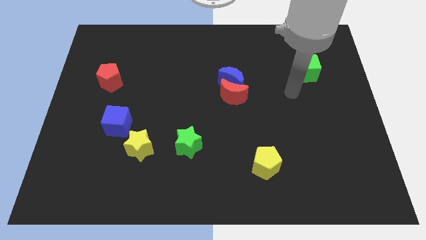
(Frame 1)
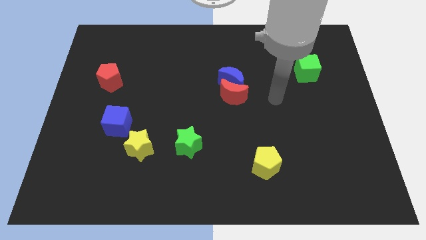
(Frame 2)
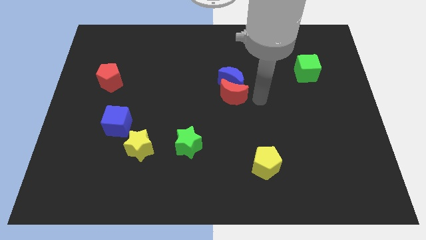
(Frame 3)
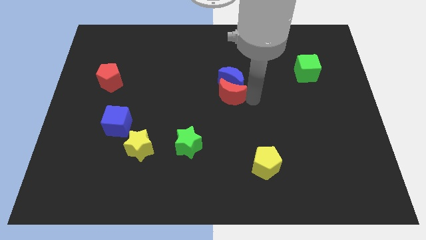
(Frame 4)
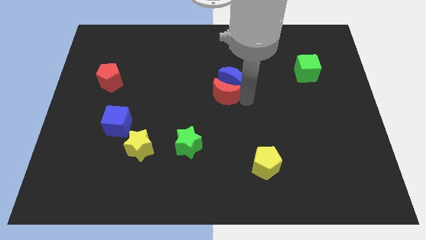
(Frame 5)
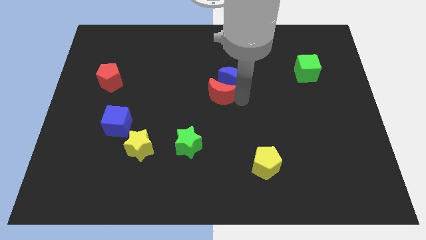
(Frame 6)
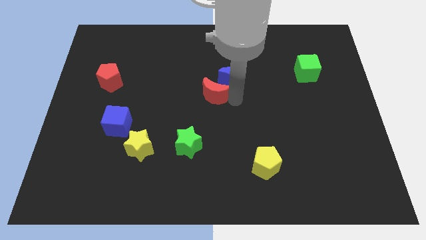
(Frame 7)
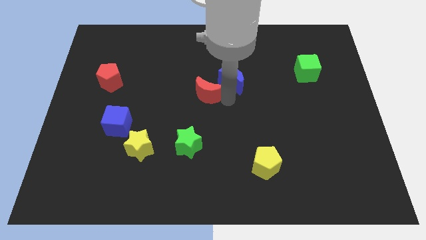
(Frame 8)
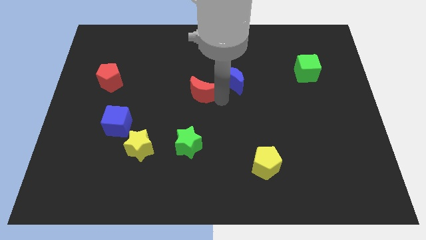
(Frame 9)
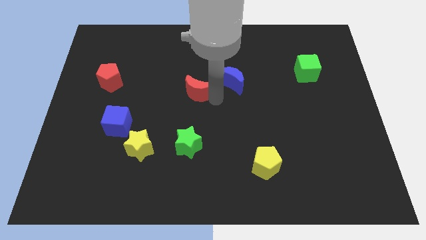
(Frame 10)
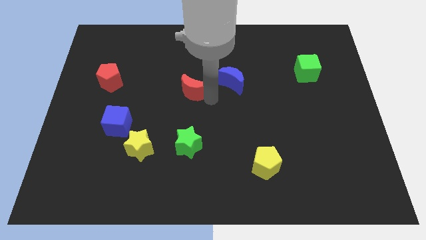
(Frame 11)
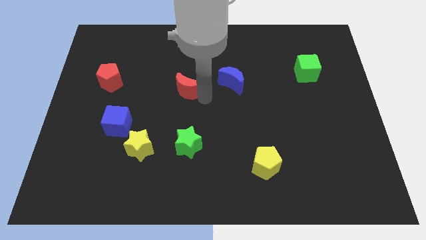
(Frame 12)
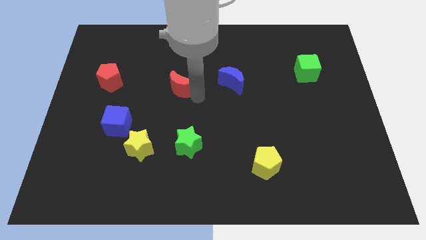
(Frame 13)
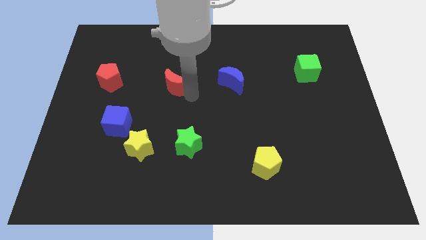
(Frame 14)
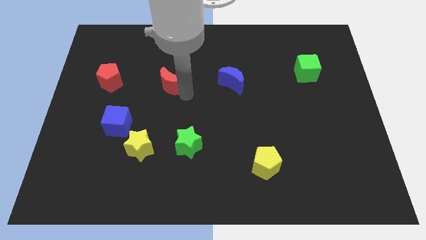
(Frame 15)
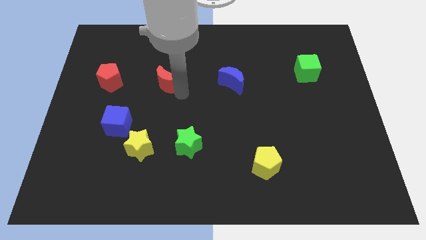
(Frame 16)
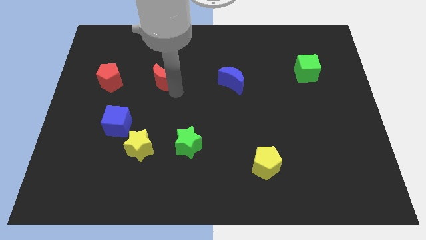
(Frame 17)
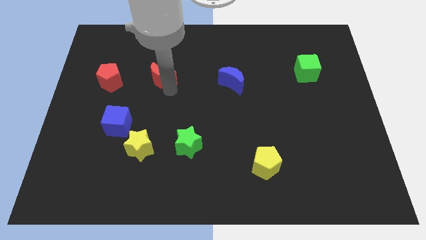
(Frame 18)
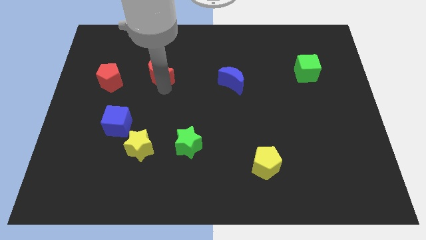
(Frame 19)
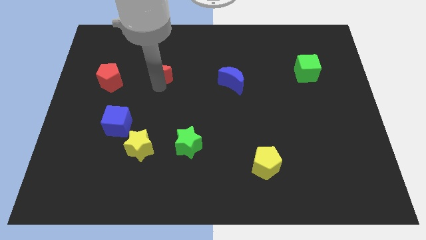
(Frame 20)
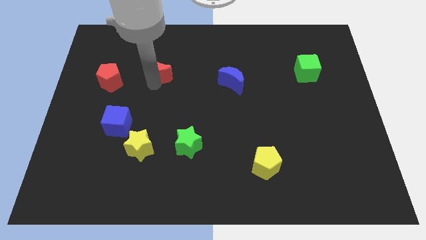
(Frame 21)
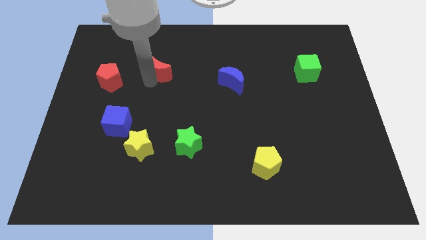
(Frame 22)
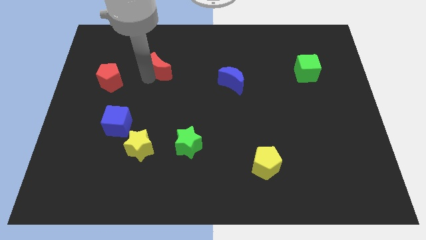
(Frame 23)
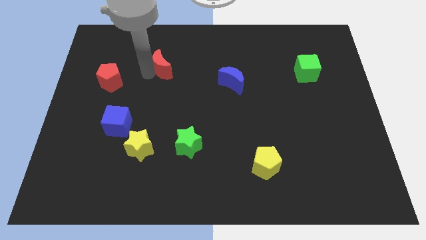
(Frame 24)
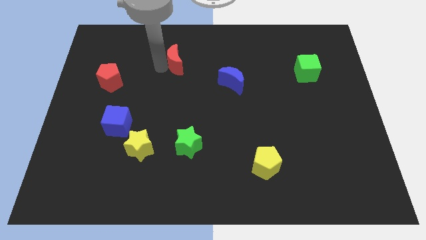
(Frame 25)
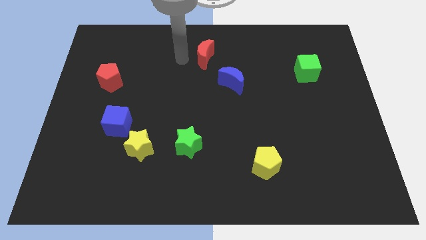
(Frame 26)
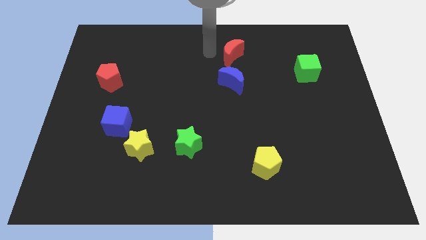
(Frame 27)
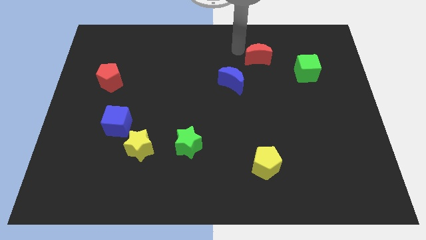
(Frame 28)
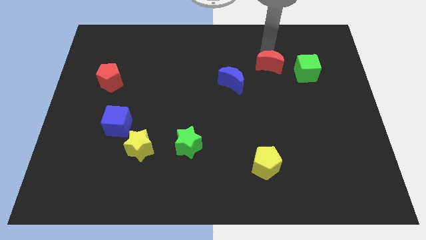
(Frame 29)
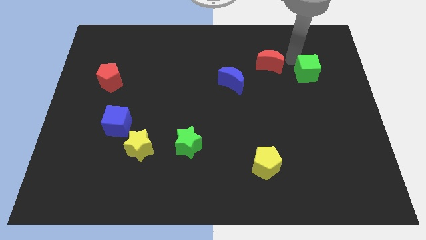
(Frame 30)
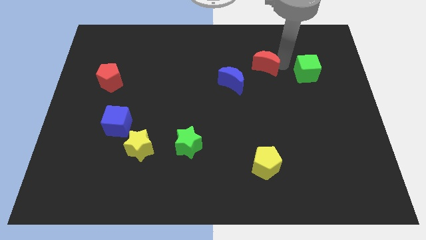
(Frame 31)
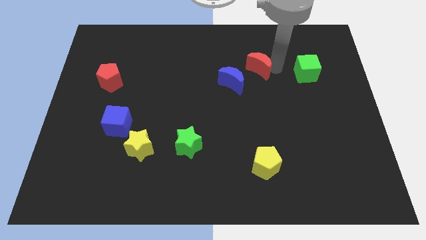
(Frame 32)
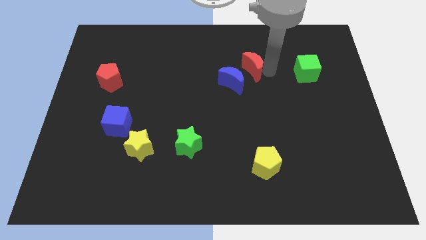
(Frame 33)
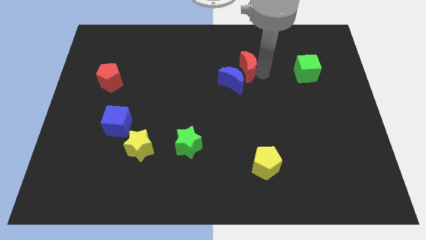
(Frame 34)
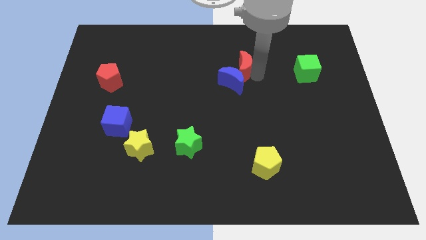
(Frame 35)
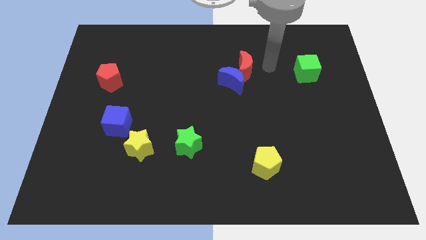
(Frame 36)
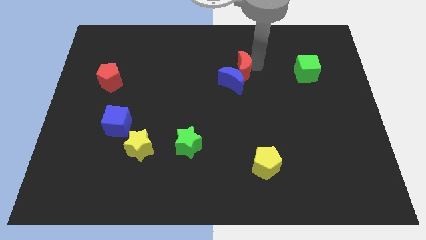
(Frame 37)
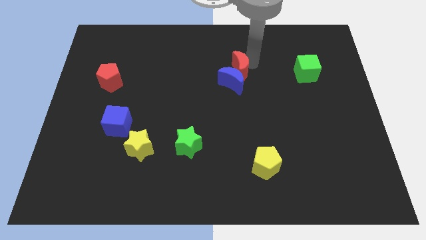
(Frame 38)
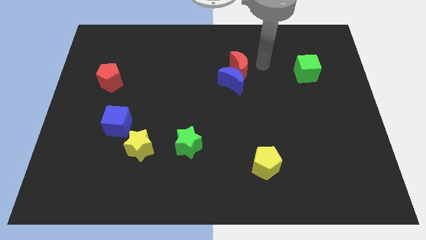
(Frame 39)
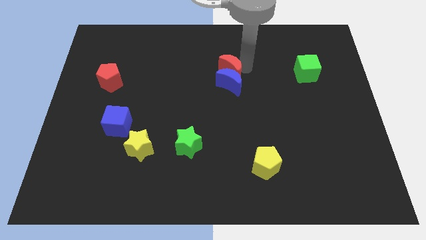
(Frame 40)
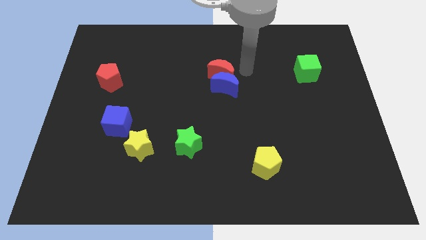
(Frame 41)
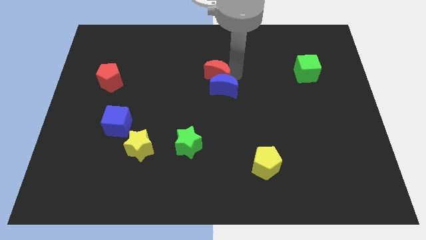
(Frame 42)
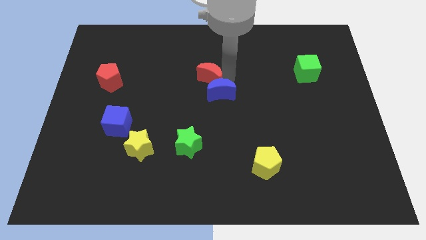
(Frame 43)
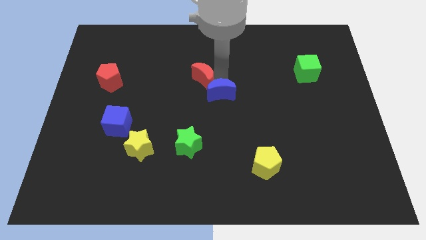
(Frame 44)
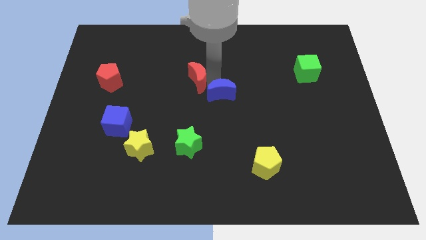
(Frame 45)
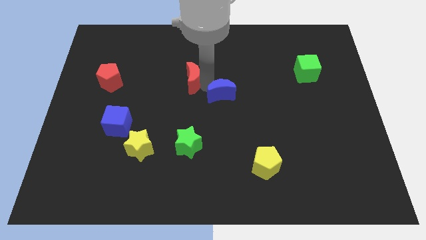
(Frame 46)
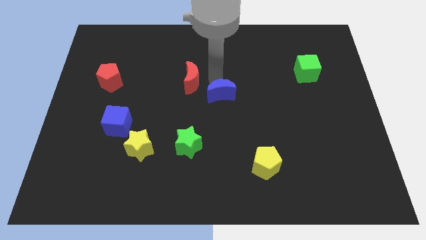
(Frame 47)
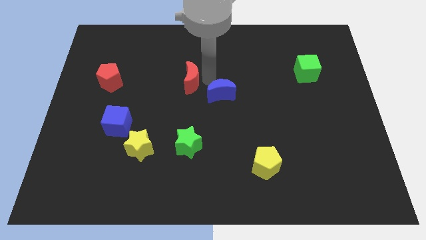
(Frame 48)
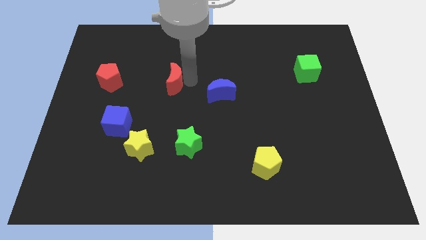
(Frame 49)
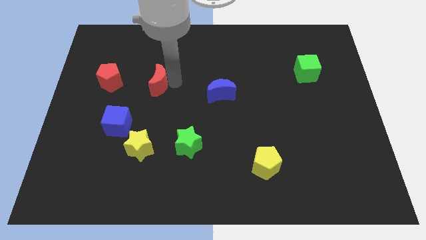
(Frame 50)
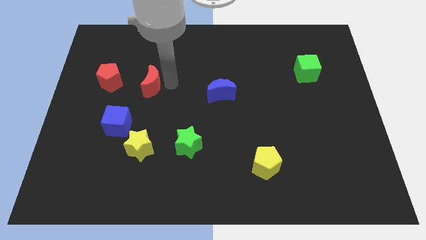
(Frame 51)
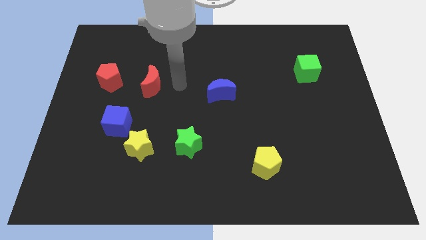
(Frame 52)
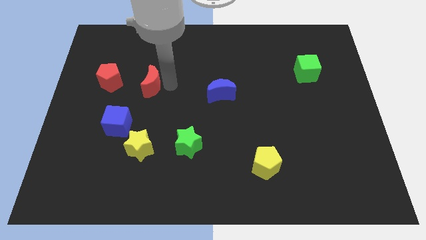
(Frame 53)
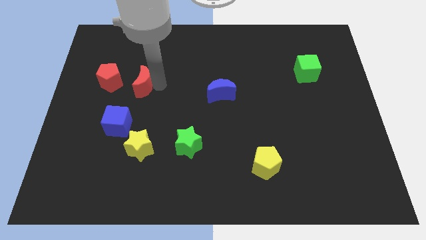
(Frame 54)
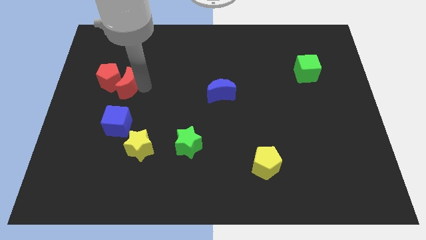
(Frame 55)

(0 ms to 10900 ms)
push the red moon next to the red pentagon

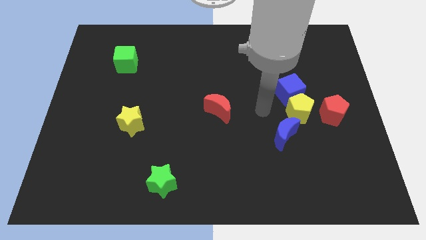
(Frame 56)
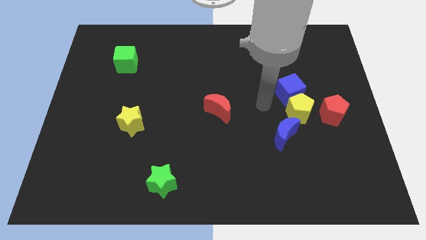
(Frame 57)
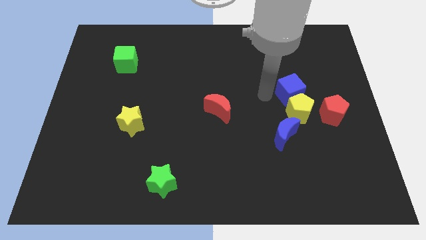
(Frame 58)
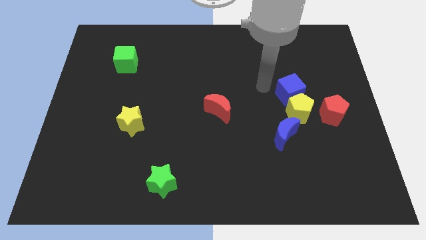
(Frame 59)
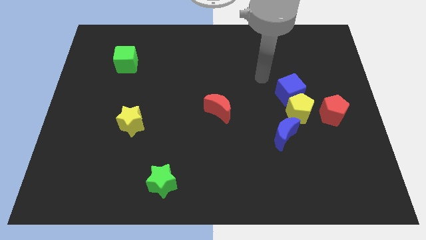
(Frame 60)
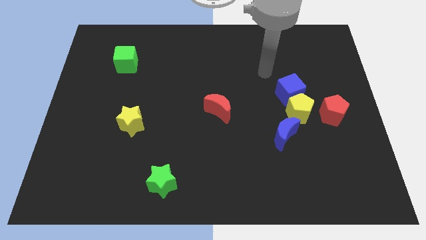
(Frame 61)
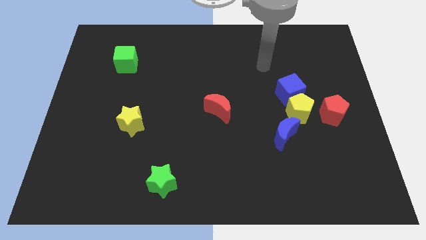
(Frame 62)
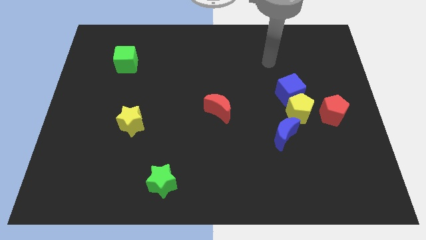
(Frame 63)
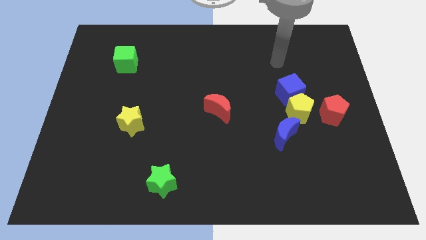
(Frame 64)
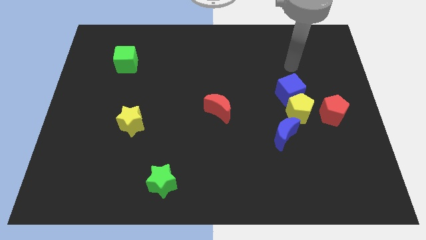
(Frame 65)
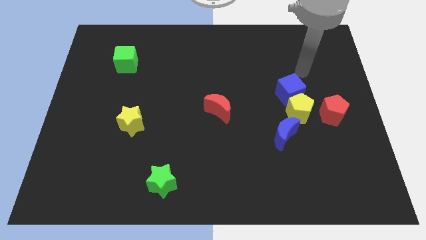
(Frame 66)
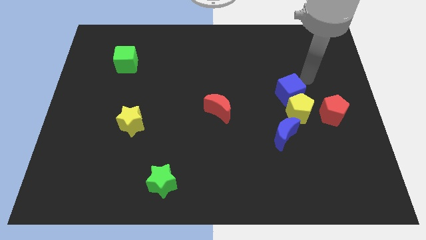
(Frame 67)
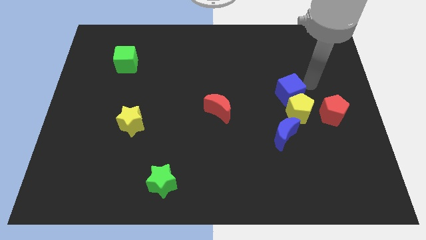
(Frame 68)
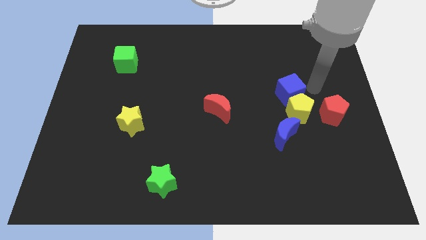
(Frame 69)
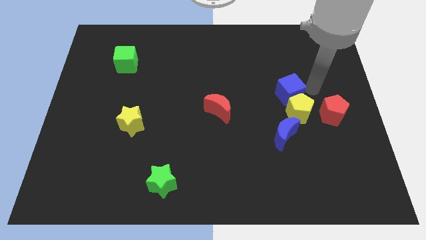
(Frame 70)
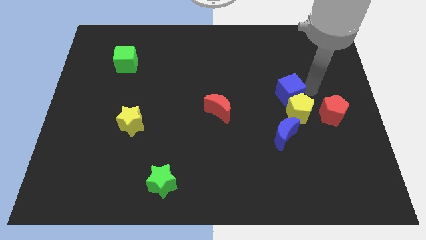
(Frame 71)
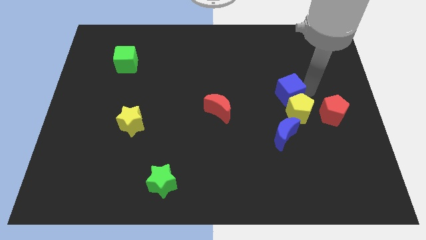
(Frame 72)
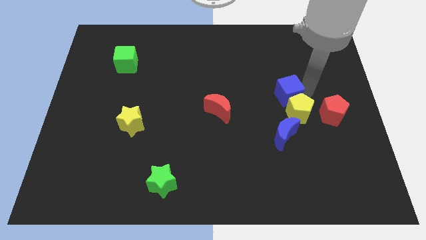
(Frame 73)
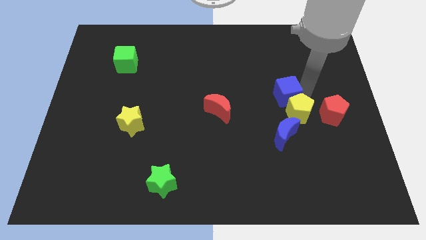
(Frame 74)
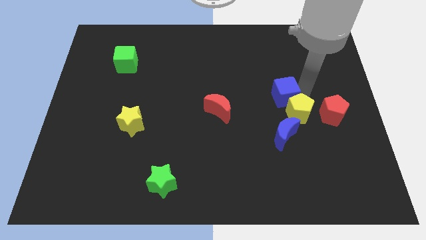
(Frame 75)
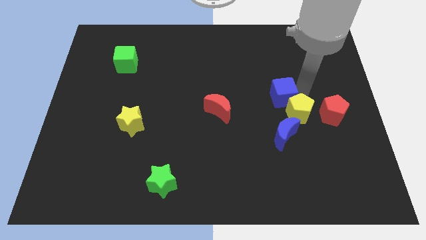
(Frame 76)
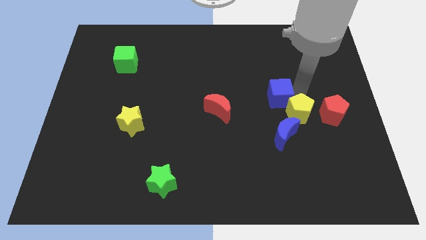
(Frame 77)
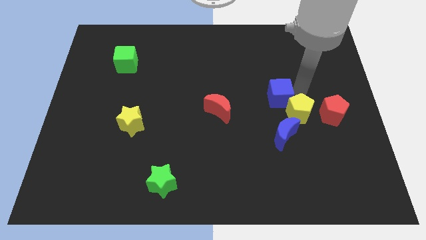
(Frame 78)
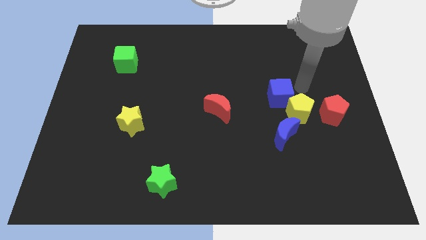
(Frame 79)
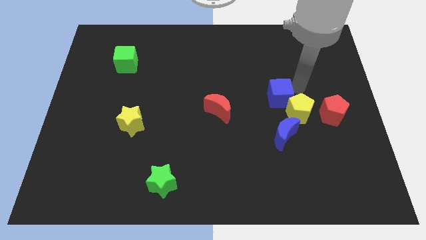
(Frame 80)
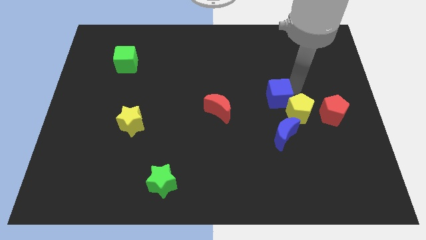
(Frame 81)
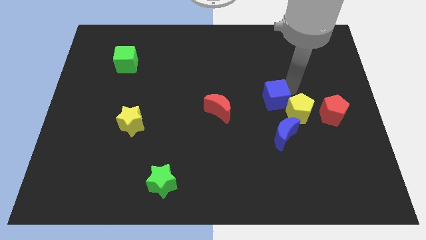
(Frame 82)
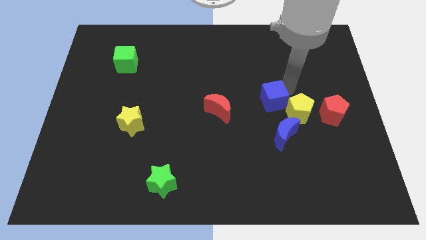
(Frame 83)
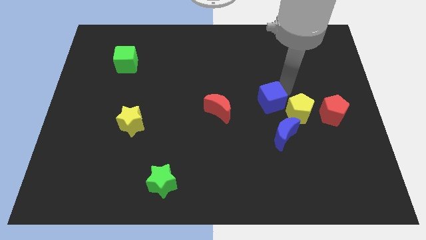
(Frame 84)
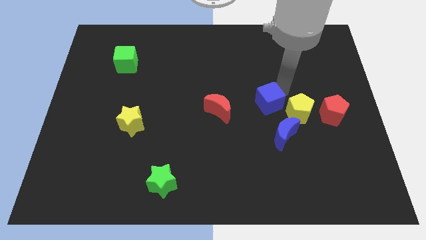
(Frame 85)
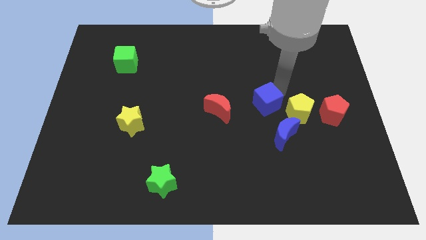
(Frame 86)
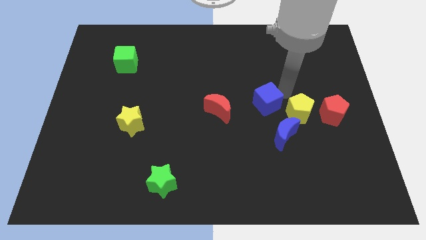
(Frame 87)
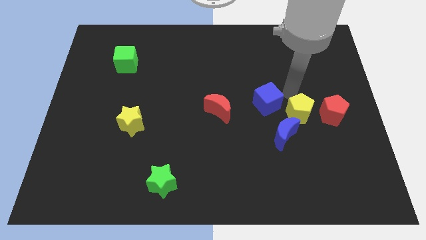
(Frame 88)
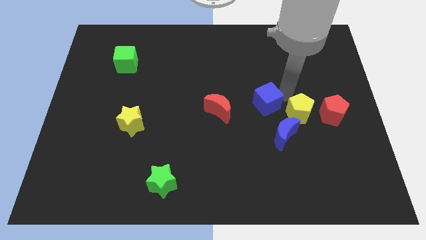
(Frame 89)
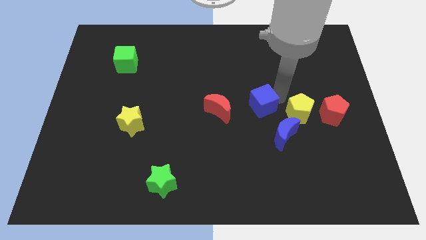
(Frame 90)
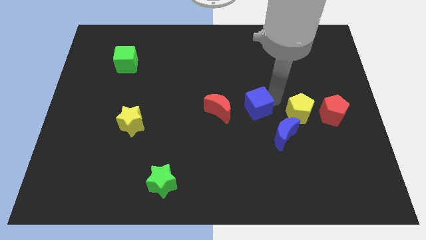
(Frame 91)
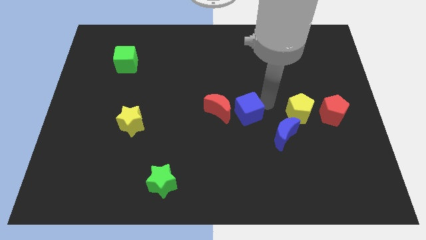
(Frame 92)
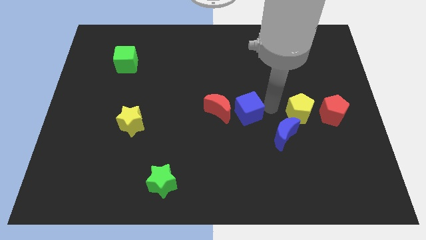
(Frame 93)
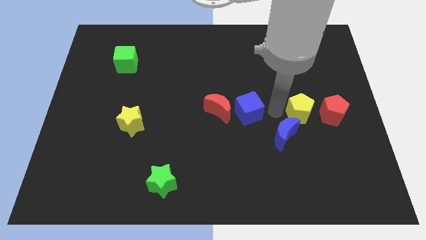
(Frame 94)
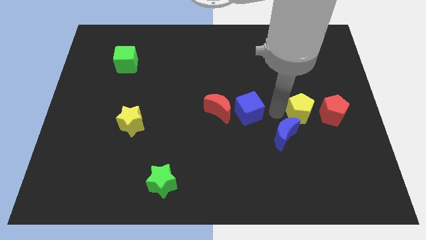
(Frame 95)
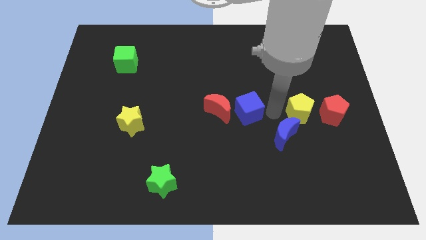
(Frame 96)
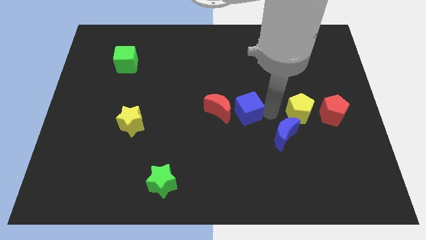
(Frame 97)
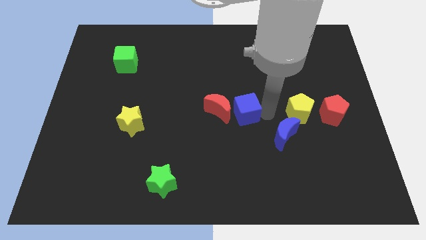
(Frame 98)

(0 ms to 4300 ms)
slide the blue cube to the red moon
